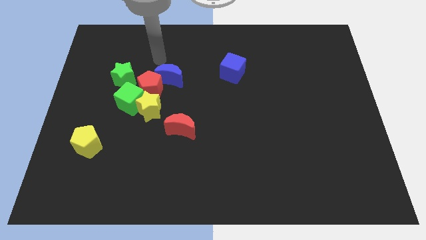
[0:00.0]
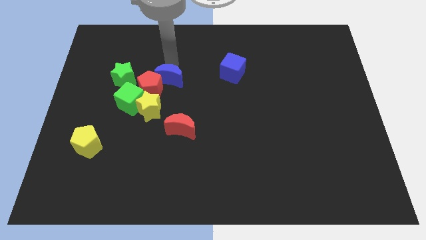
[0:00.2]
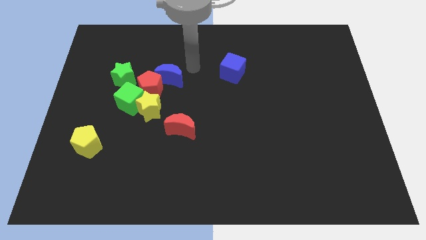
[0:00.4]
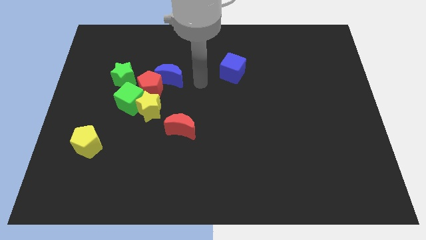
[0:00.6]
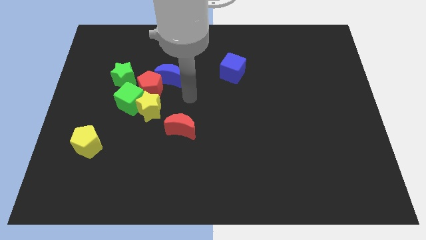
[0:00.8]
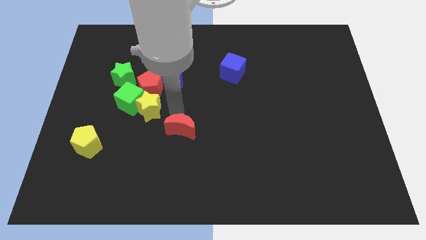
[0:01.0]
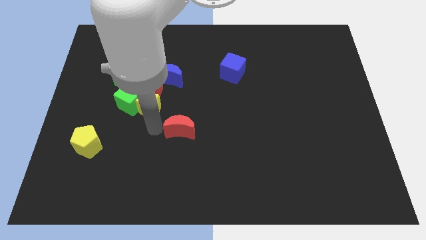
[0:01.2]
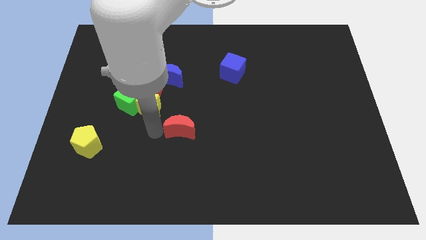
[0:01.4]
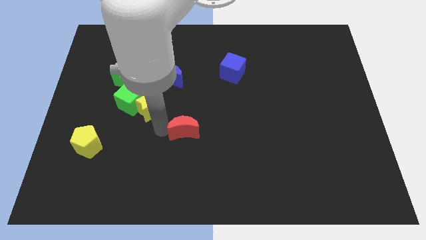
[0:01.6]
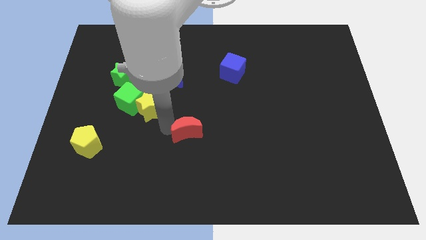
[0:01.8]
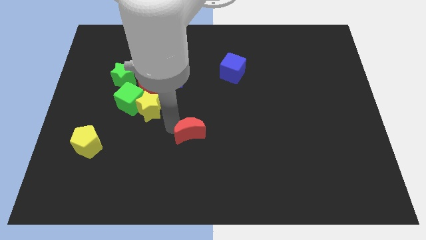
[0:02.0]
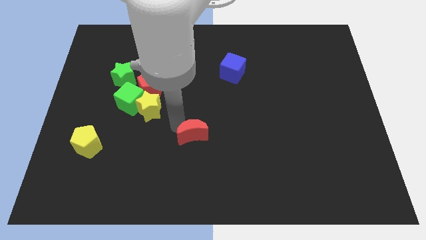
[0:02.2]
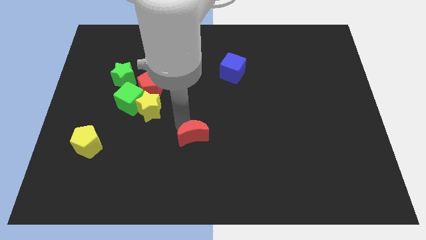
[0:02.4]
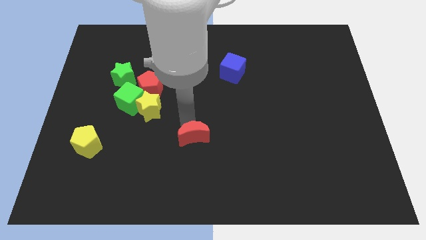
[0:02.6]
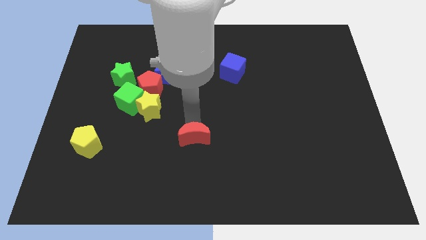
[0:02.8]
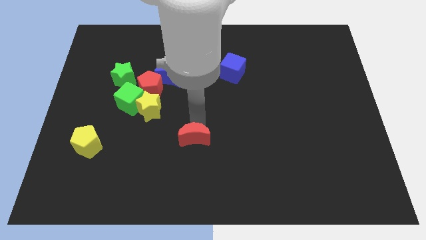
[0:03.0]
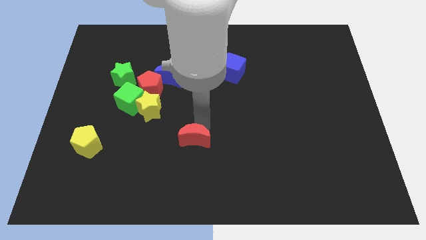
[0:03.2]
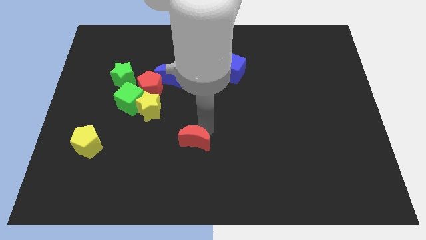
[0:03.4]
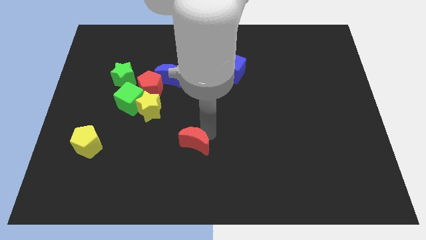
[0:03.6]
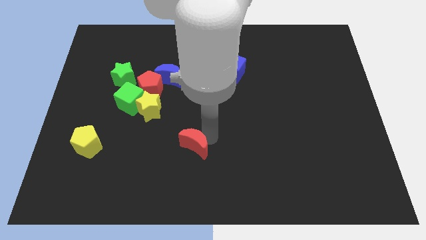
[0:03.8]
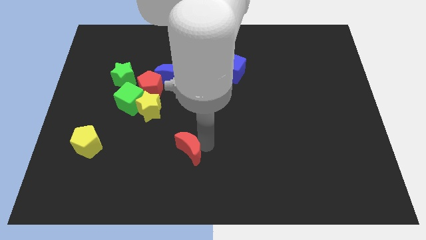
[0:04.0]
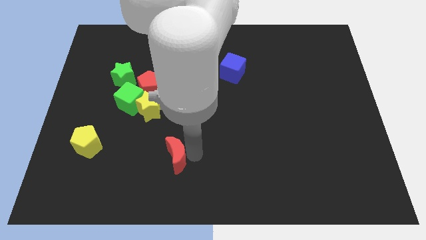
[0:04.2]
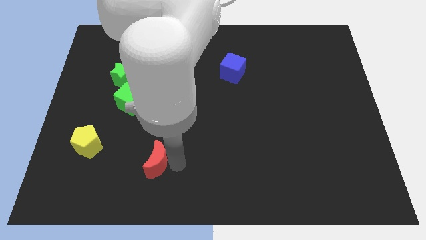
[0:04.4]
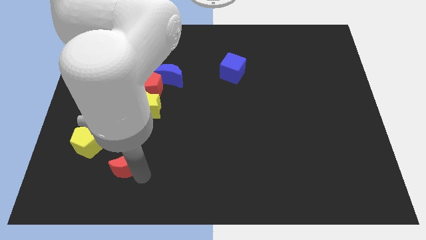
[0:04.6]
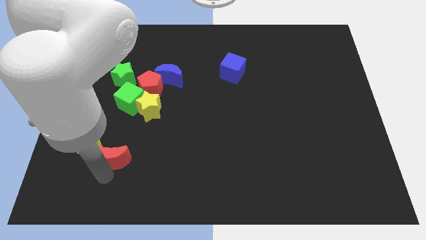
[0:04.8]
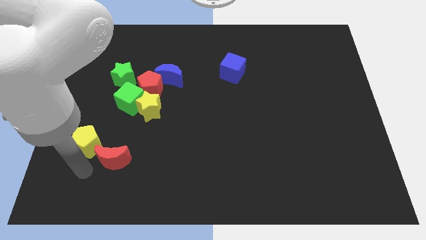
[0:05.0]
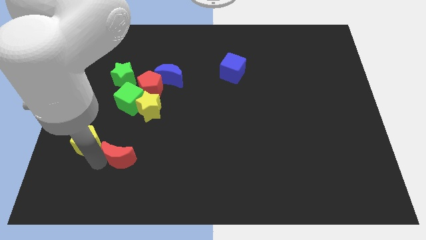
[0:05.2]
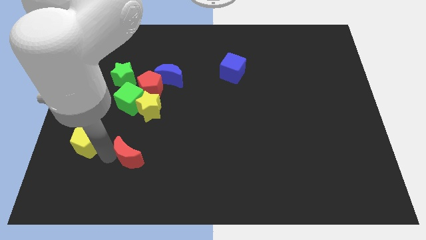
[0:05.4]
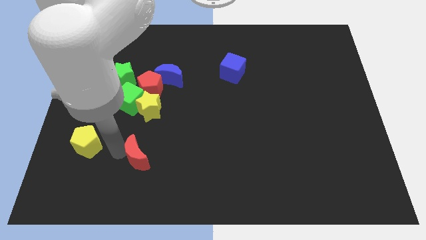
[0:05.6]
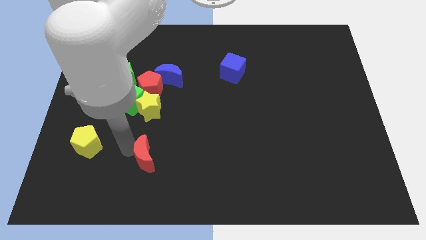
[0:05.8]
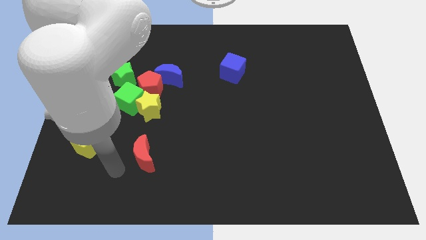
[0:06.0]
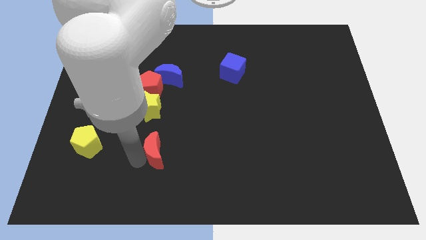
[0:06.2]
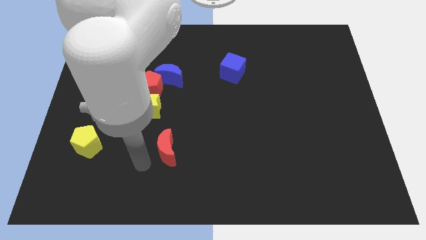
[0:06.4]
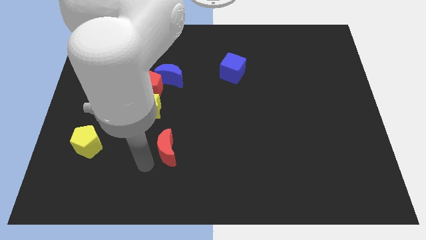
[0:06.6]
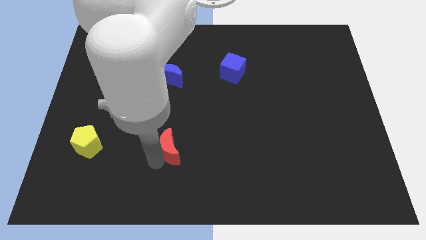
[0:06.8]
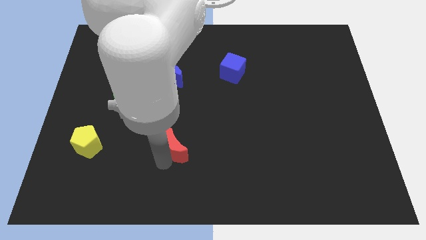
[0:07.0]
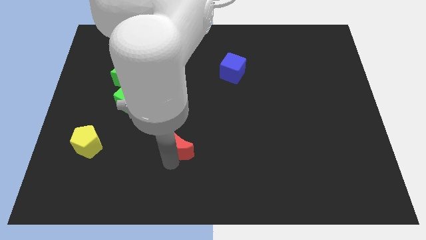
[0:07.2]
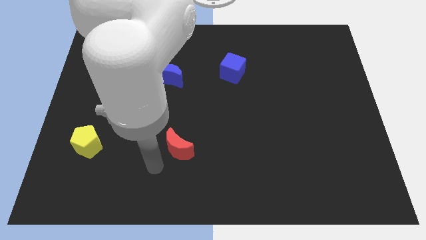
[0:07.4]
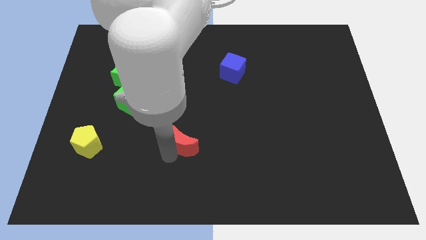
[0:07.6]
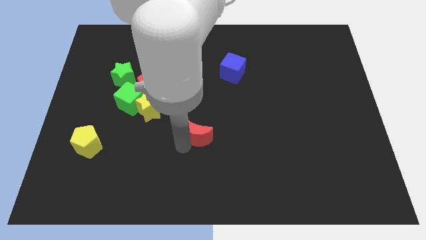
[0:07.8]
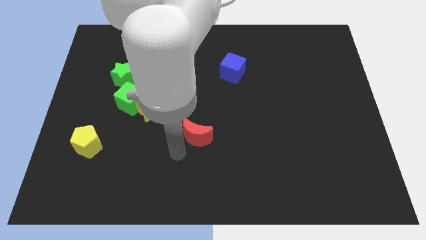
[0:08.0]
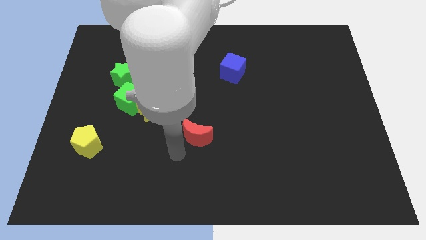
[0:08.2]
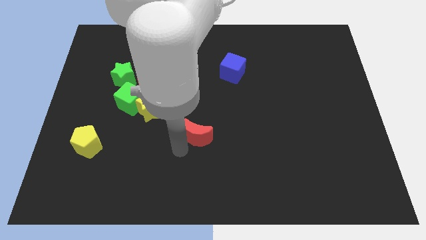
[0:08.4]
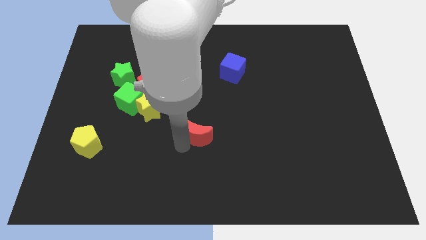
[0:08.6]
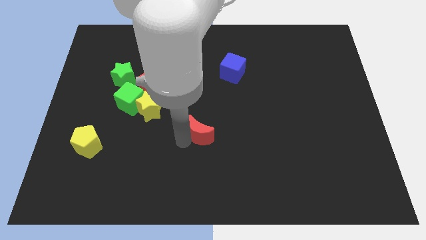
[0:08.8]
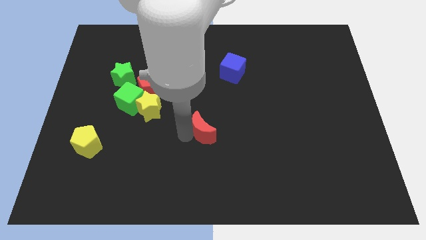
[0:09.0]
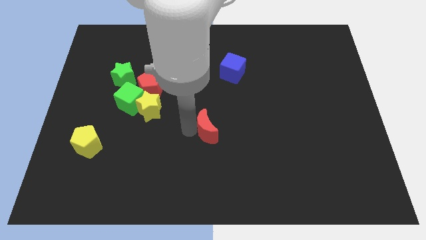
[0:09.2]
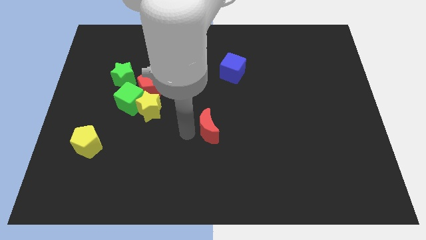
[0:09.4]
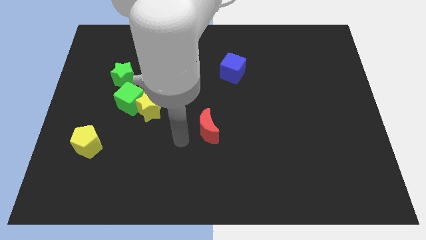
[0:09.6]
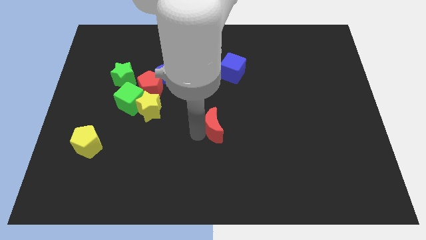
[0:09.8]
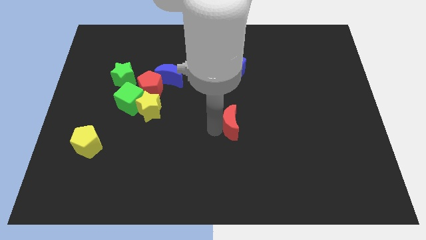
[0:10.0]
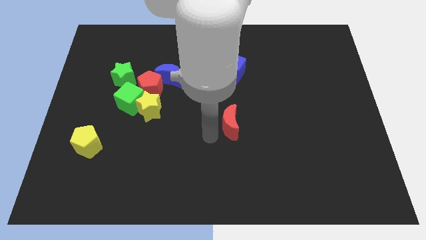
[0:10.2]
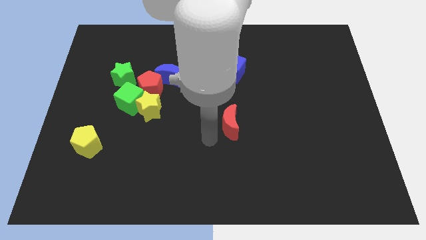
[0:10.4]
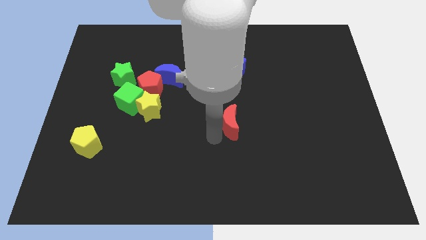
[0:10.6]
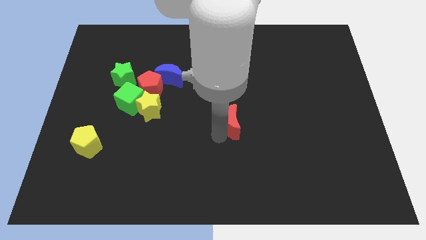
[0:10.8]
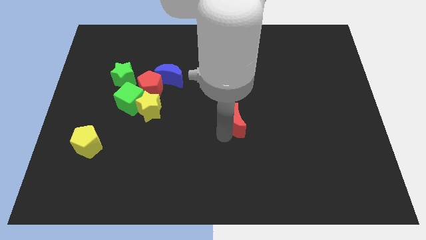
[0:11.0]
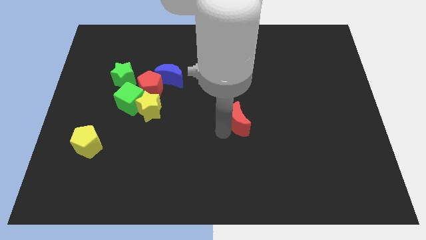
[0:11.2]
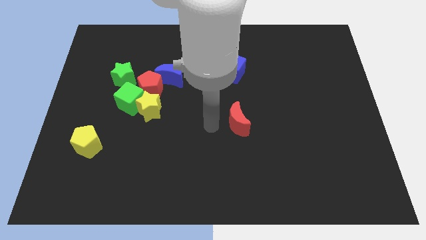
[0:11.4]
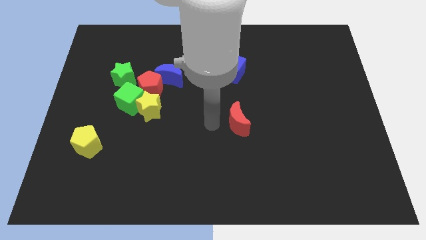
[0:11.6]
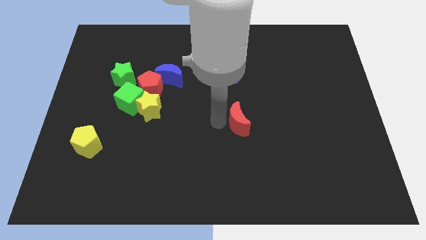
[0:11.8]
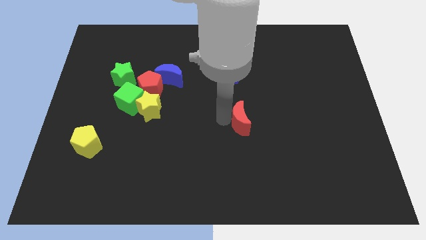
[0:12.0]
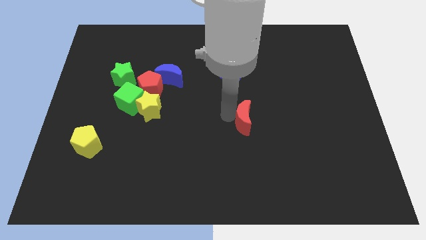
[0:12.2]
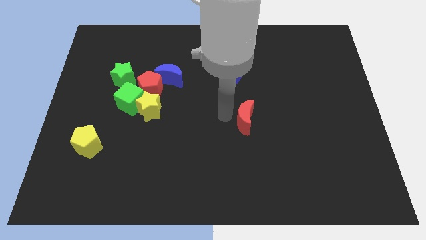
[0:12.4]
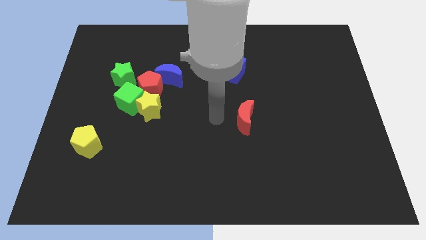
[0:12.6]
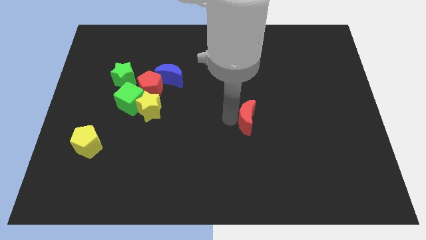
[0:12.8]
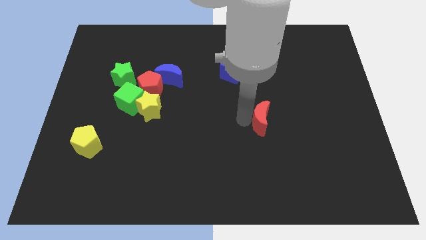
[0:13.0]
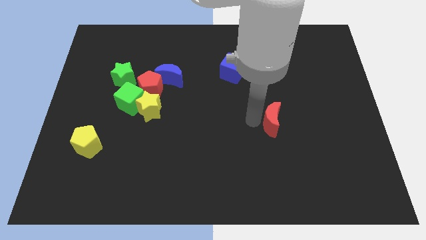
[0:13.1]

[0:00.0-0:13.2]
push the red moon to the right

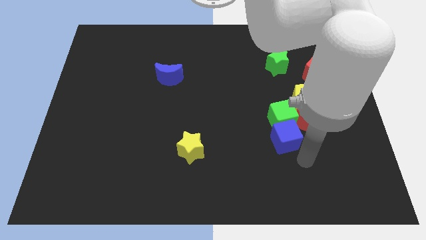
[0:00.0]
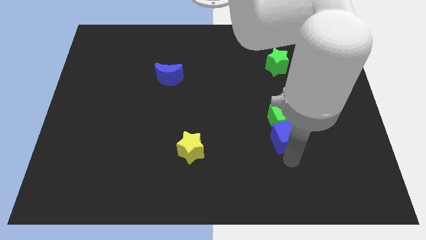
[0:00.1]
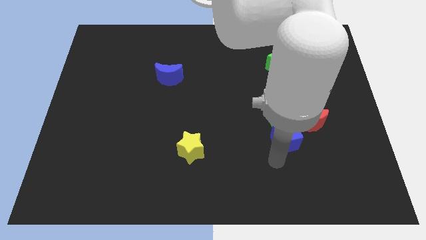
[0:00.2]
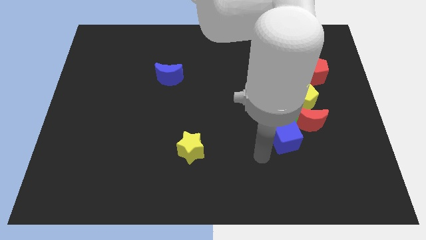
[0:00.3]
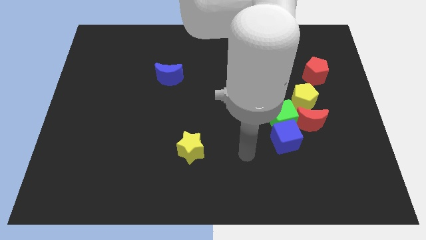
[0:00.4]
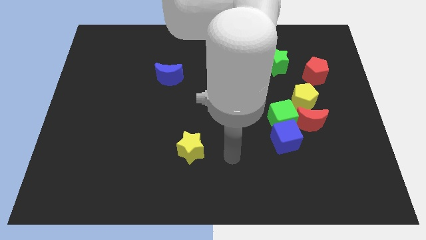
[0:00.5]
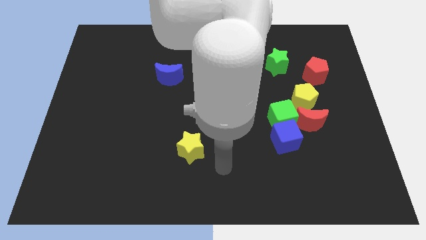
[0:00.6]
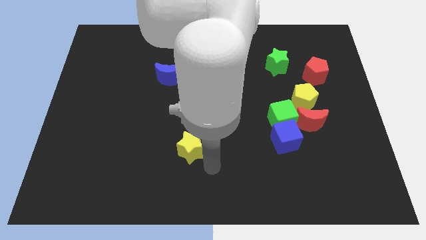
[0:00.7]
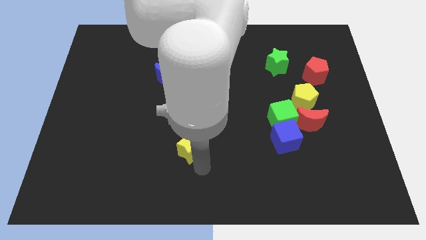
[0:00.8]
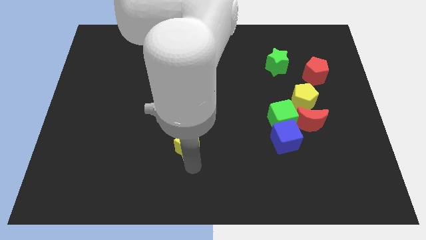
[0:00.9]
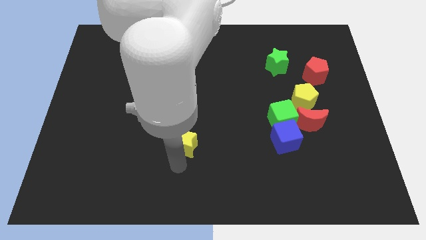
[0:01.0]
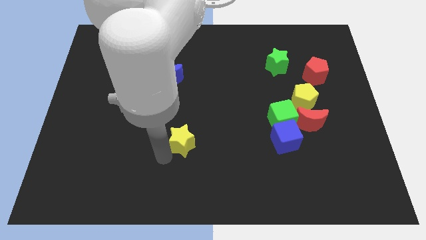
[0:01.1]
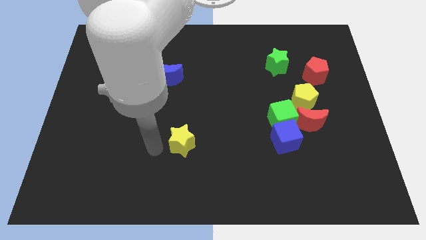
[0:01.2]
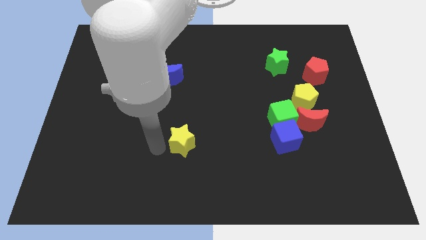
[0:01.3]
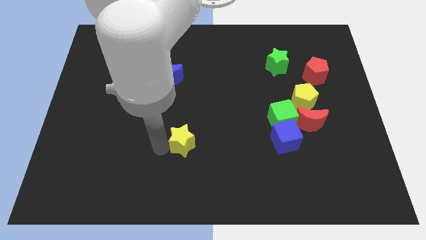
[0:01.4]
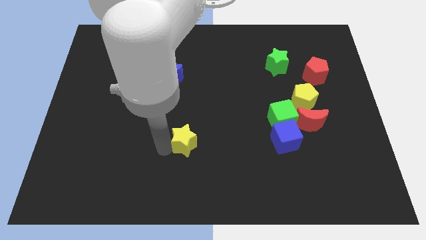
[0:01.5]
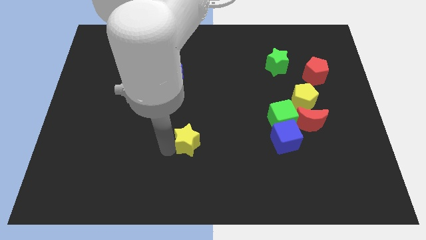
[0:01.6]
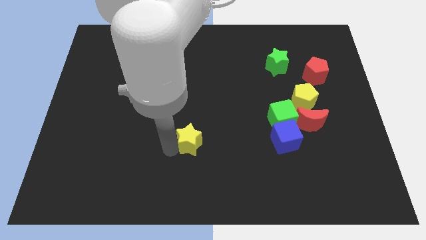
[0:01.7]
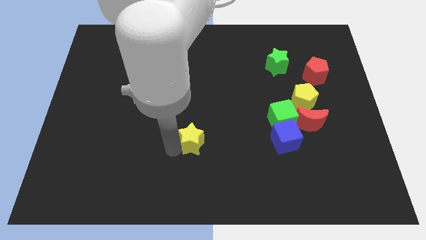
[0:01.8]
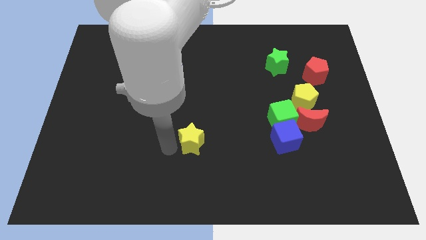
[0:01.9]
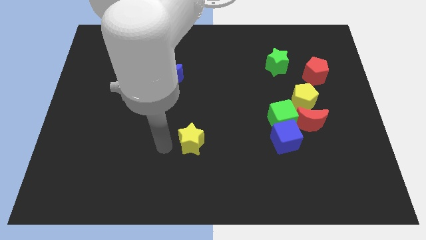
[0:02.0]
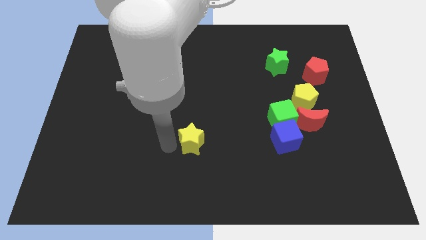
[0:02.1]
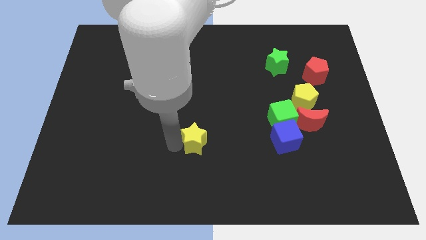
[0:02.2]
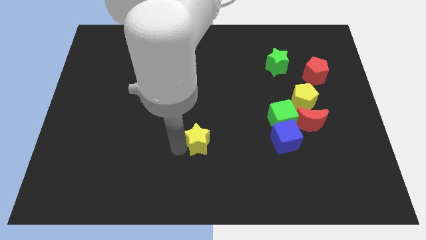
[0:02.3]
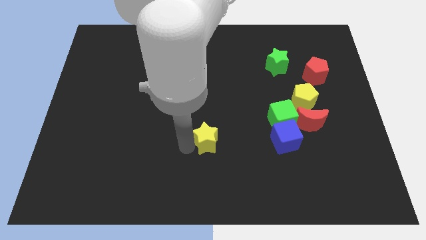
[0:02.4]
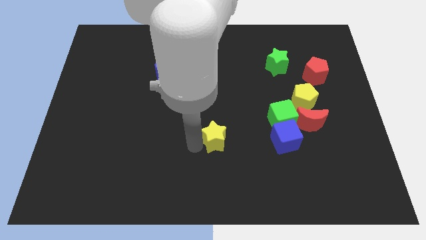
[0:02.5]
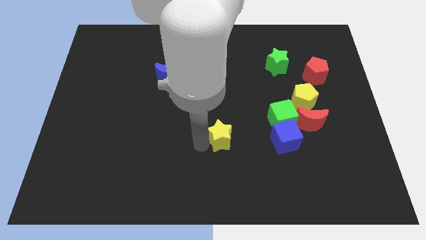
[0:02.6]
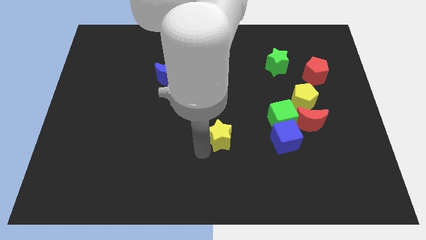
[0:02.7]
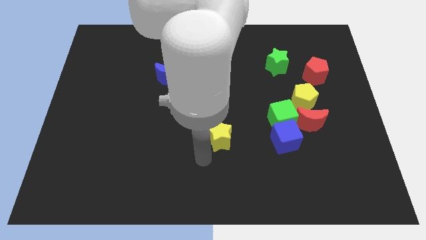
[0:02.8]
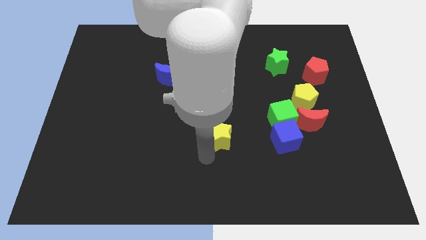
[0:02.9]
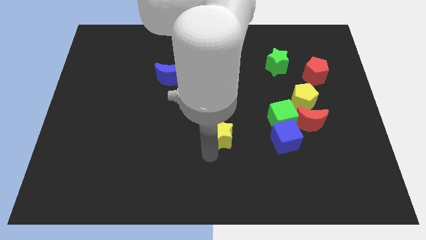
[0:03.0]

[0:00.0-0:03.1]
move the yellow star up and to the right slightly
